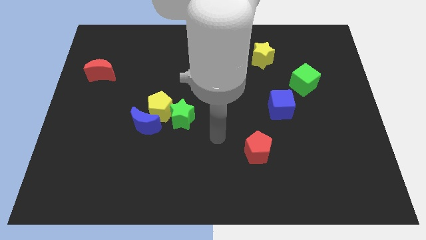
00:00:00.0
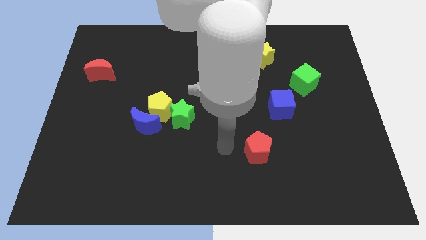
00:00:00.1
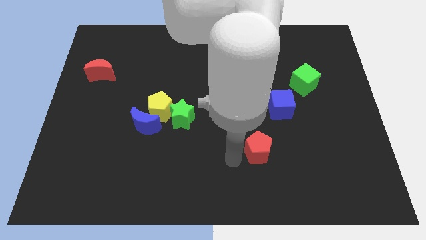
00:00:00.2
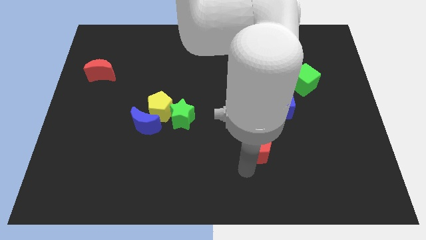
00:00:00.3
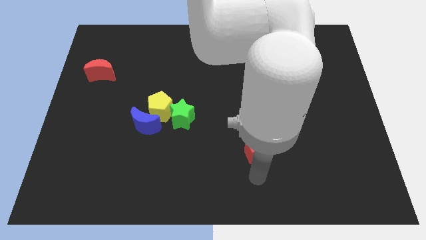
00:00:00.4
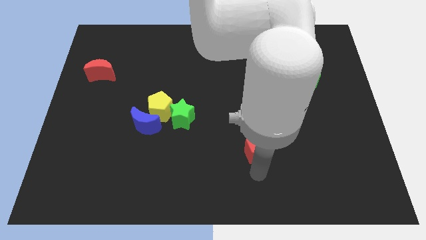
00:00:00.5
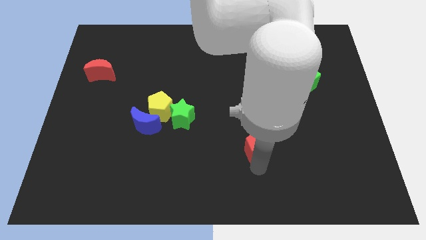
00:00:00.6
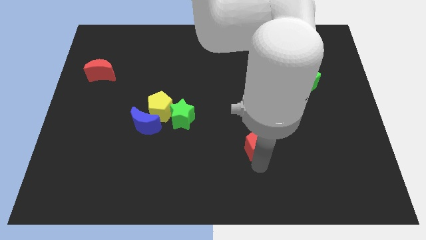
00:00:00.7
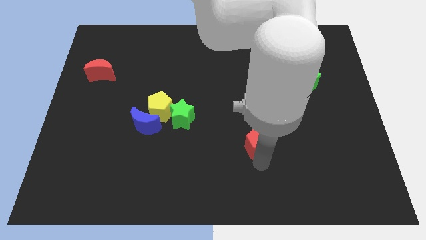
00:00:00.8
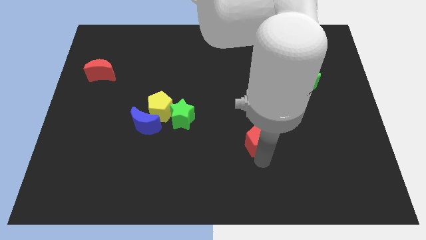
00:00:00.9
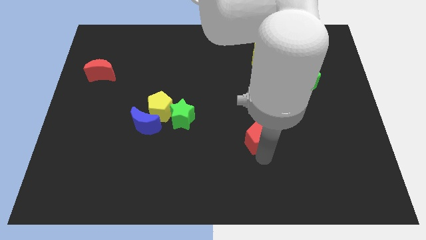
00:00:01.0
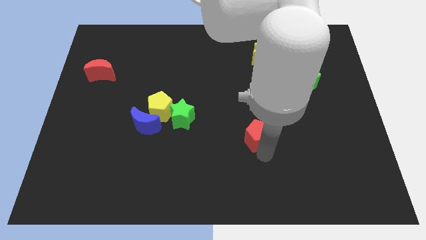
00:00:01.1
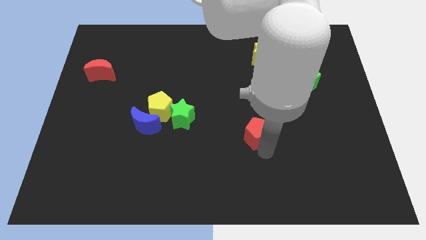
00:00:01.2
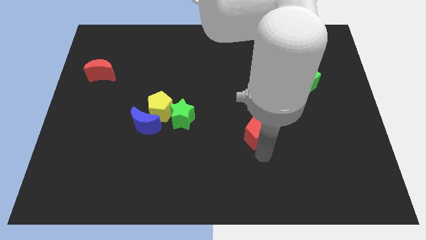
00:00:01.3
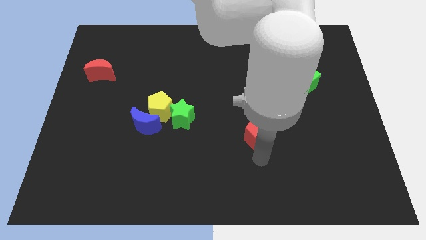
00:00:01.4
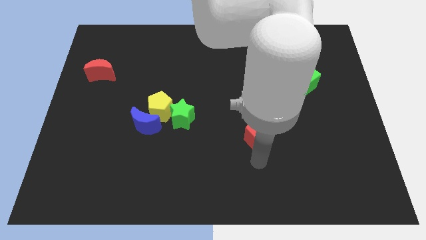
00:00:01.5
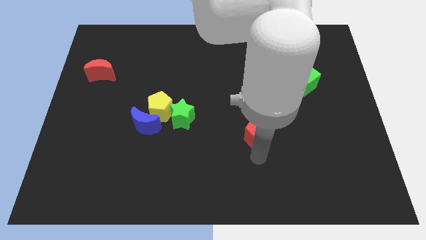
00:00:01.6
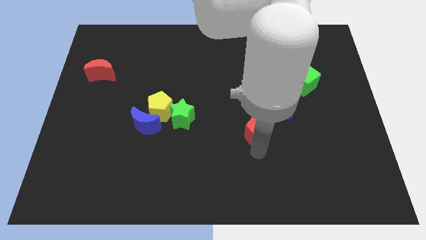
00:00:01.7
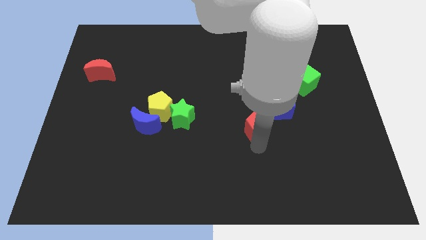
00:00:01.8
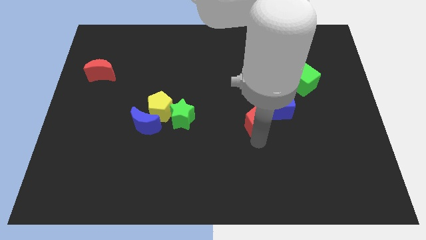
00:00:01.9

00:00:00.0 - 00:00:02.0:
move the red pentagon a little up

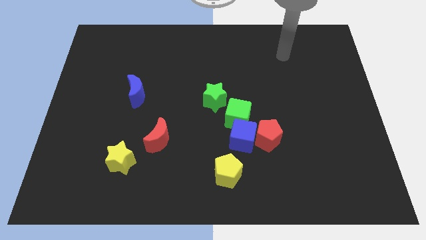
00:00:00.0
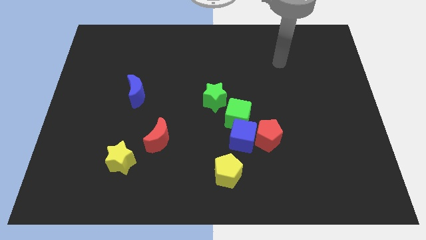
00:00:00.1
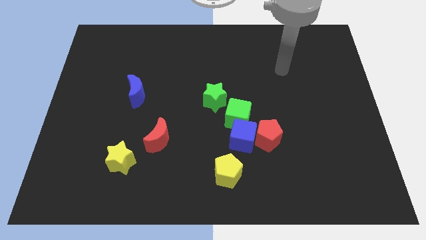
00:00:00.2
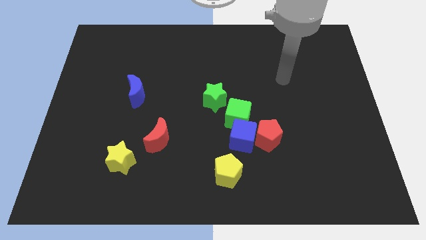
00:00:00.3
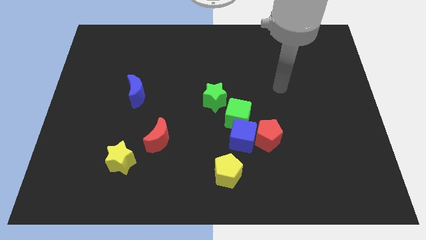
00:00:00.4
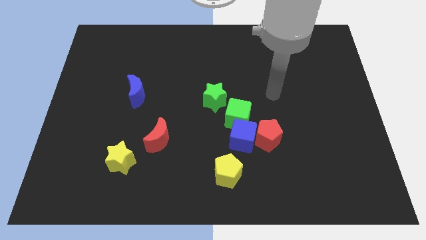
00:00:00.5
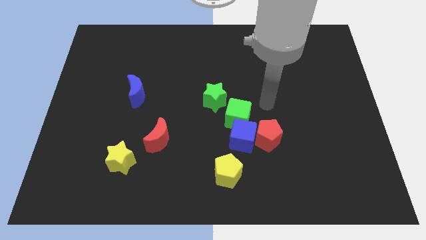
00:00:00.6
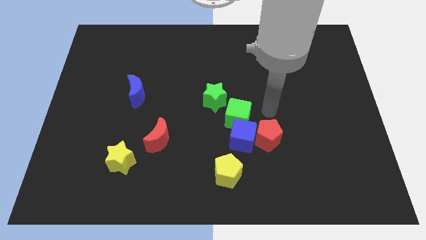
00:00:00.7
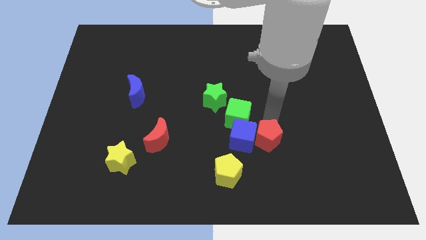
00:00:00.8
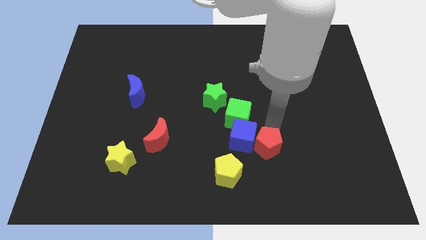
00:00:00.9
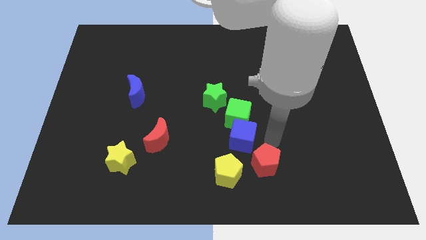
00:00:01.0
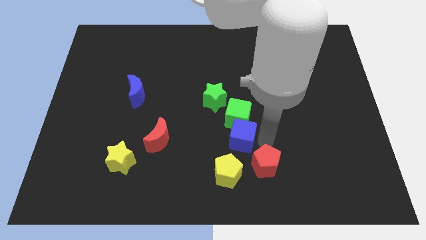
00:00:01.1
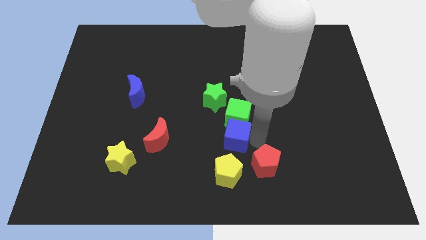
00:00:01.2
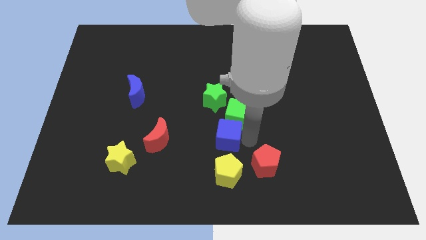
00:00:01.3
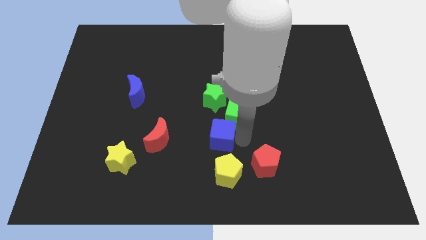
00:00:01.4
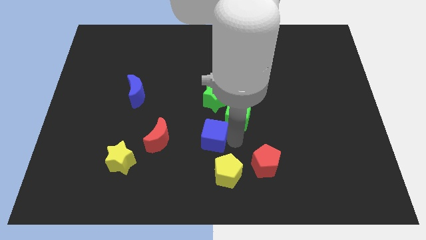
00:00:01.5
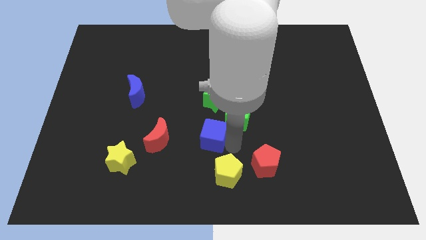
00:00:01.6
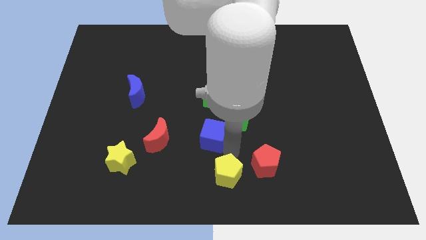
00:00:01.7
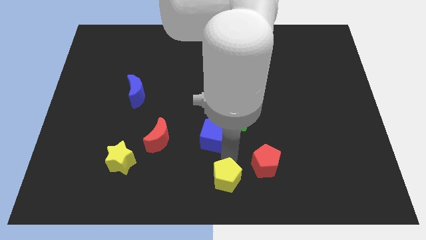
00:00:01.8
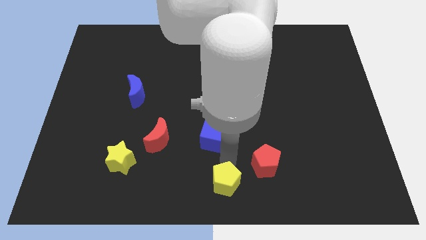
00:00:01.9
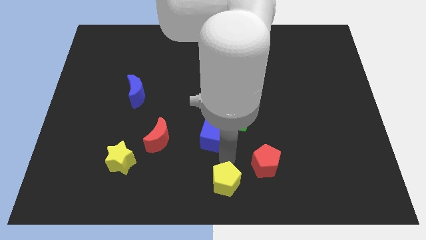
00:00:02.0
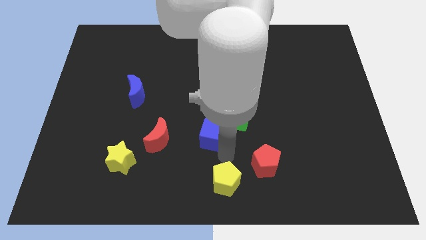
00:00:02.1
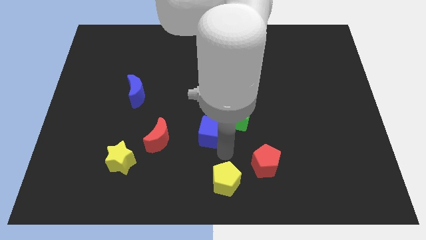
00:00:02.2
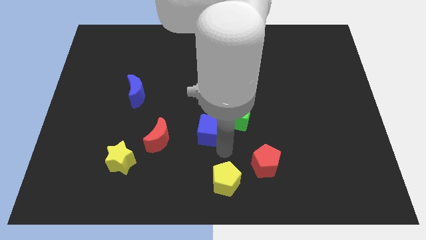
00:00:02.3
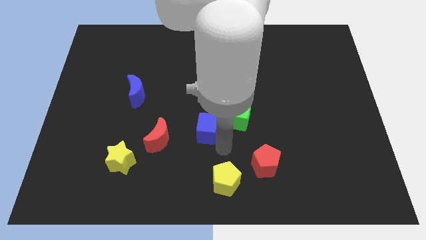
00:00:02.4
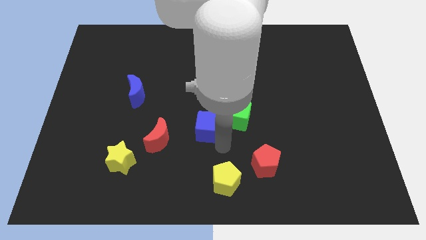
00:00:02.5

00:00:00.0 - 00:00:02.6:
move the blue cube upwards and left a little

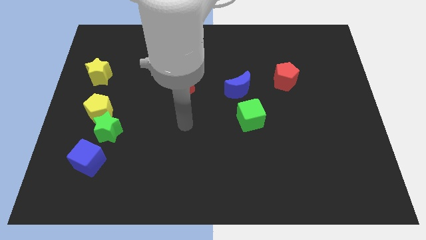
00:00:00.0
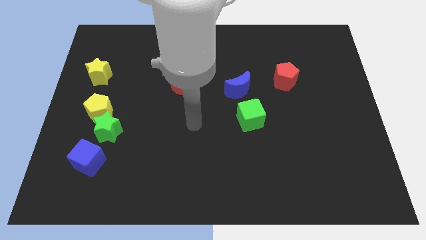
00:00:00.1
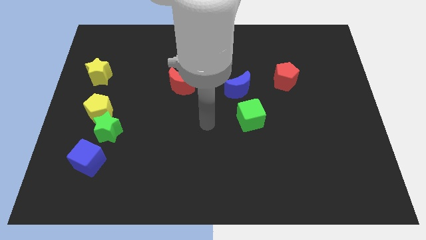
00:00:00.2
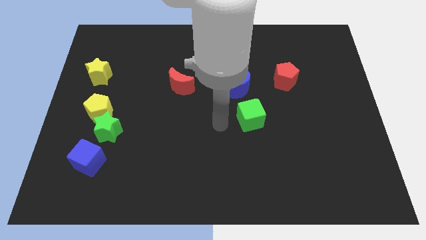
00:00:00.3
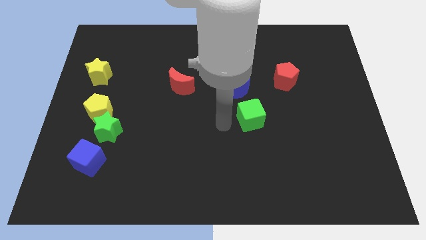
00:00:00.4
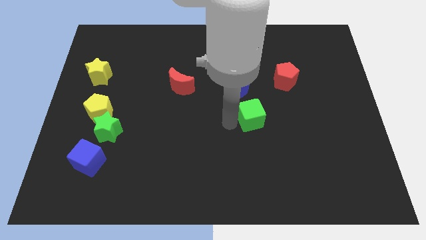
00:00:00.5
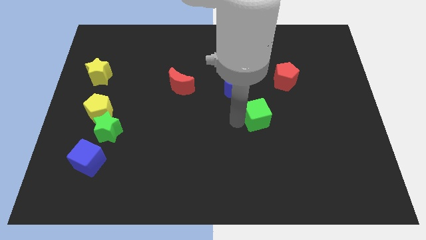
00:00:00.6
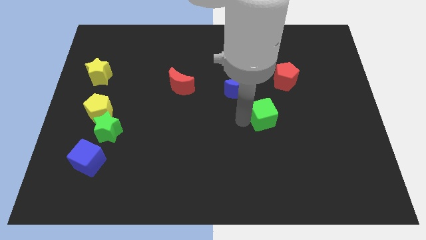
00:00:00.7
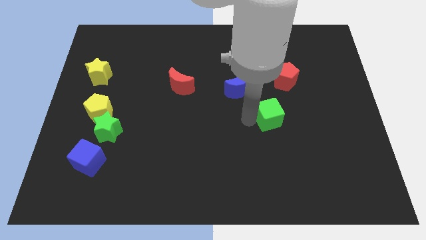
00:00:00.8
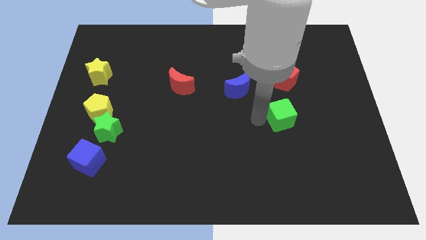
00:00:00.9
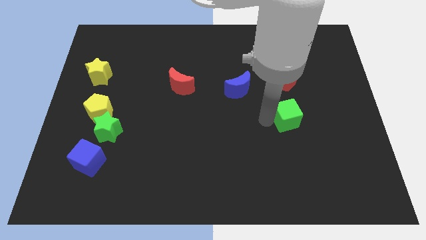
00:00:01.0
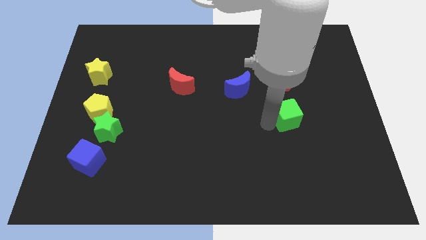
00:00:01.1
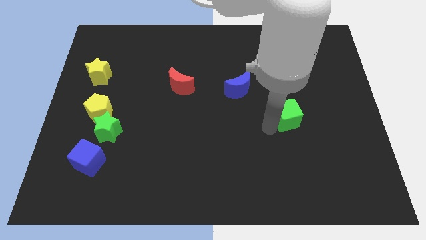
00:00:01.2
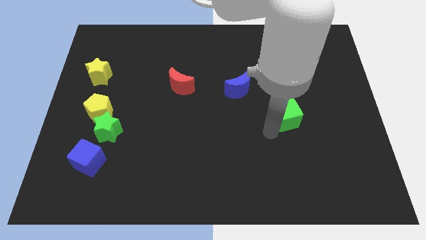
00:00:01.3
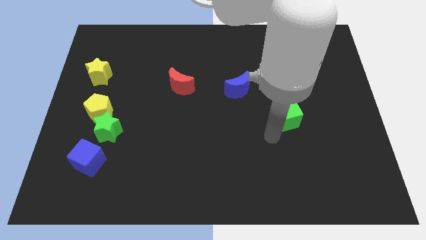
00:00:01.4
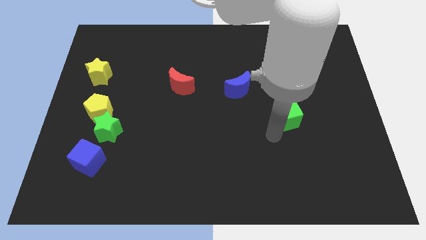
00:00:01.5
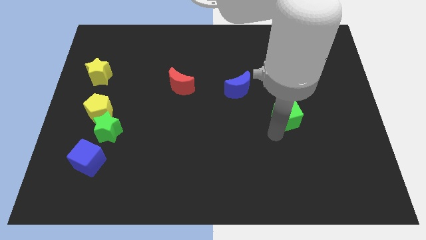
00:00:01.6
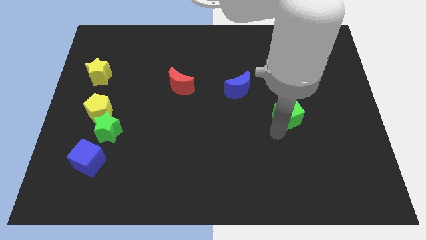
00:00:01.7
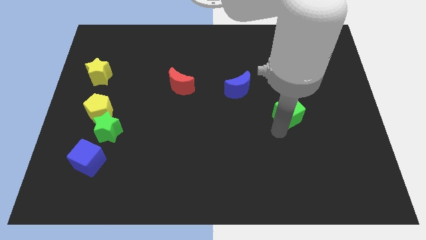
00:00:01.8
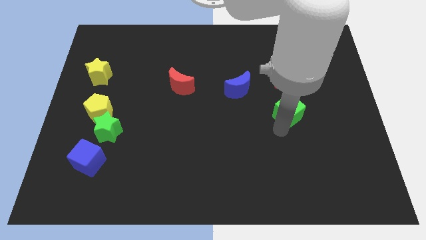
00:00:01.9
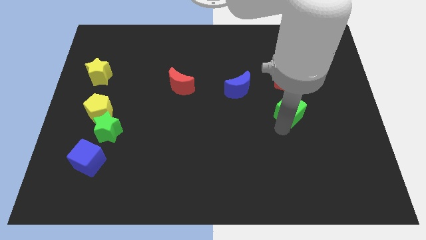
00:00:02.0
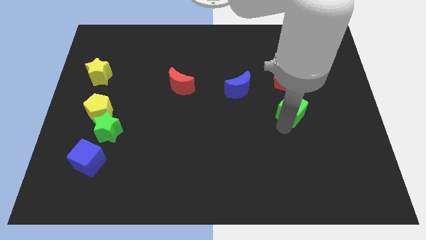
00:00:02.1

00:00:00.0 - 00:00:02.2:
slightly move the green cube upwards and then to the right

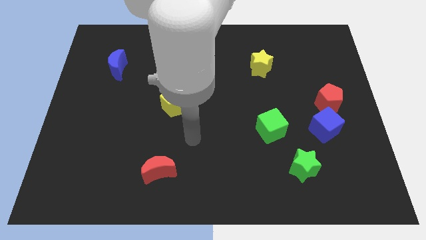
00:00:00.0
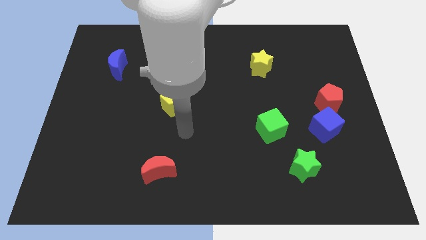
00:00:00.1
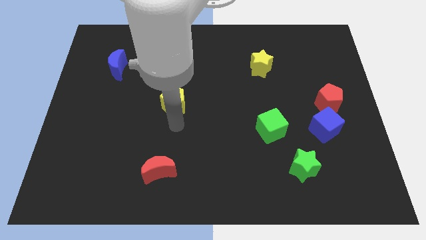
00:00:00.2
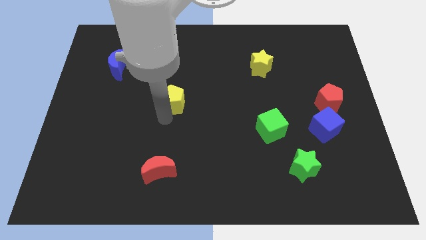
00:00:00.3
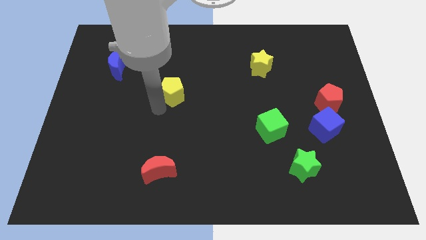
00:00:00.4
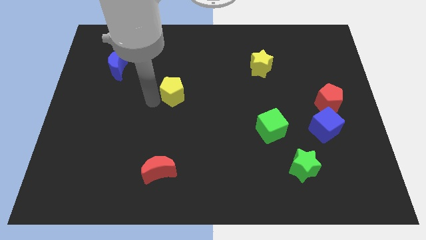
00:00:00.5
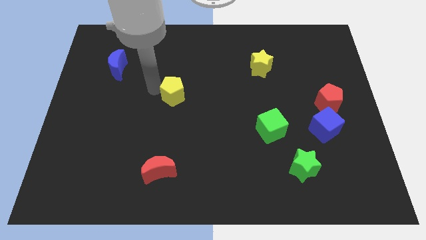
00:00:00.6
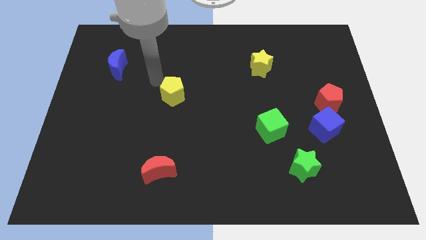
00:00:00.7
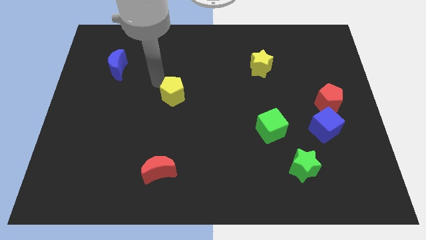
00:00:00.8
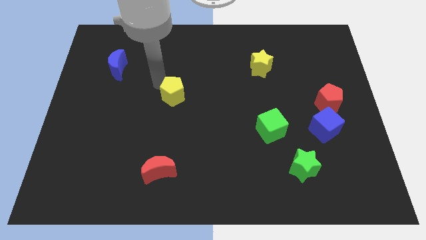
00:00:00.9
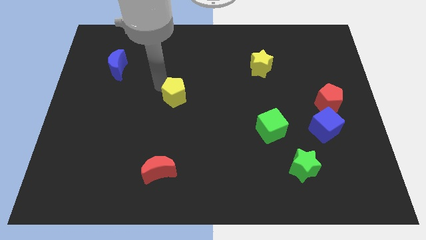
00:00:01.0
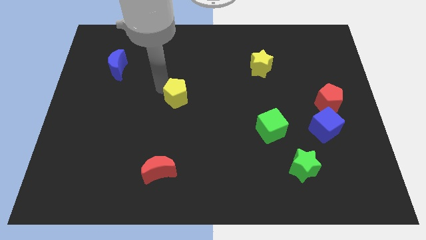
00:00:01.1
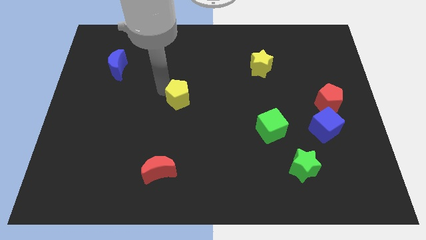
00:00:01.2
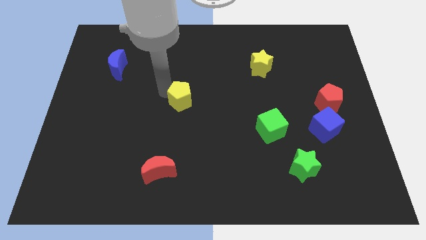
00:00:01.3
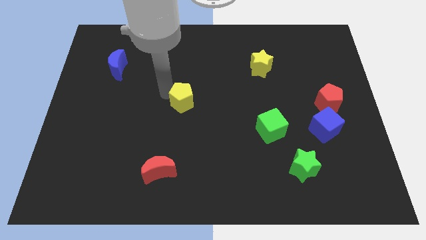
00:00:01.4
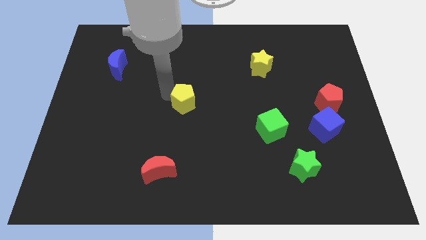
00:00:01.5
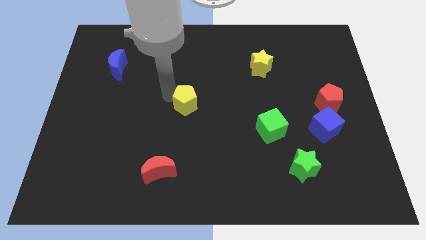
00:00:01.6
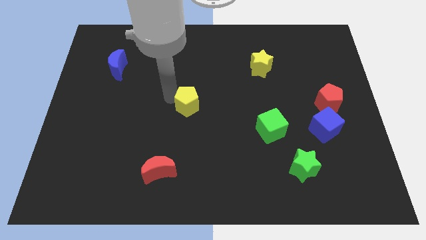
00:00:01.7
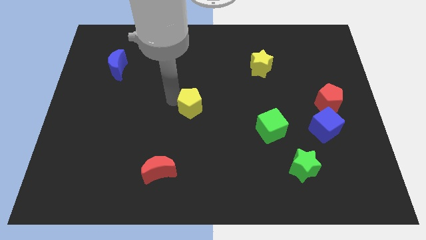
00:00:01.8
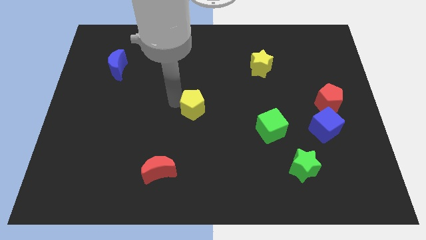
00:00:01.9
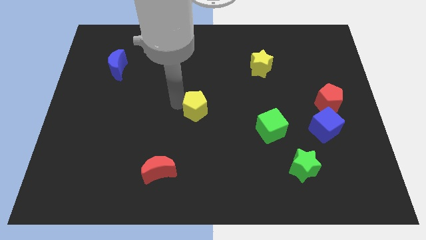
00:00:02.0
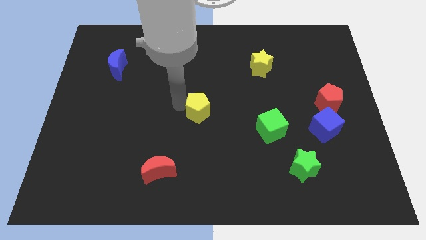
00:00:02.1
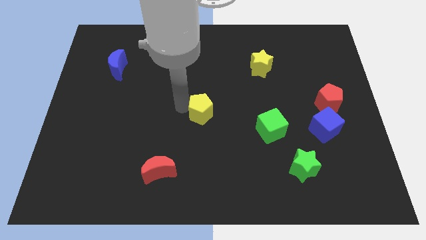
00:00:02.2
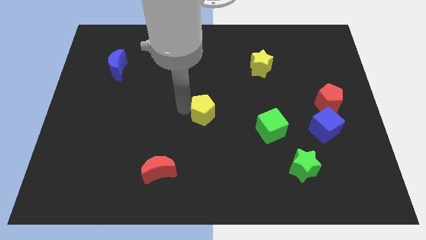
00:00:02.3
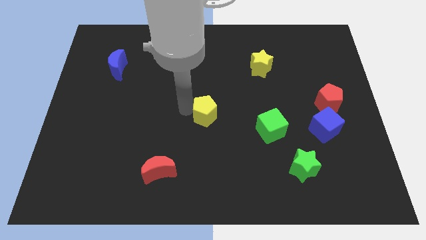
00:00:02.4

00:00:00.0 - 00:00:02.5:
move the yellow pentagon downwards and then to the right a bit
